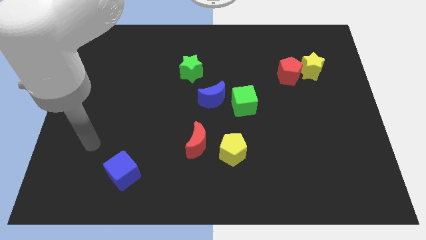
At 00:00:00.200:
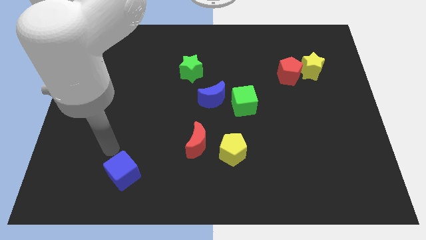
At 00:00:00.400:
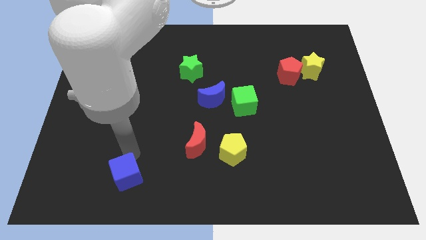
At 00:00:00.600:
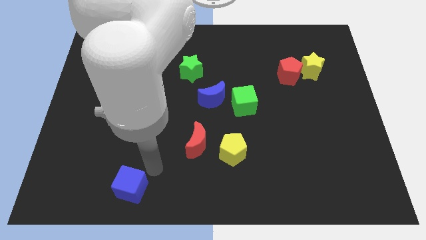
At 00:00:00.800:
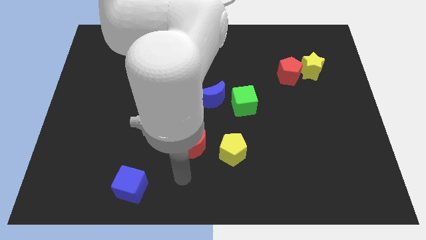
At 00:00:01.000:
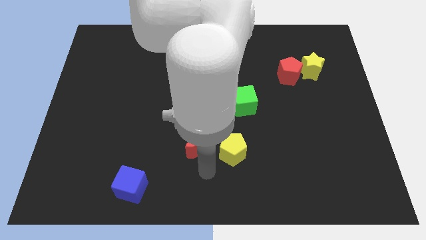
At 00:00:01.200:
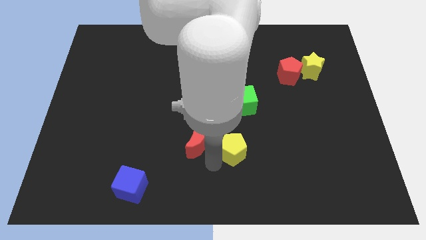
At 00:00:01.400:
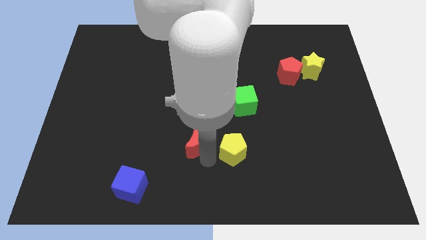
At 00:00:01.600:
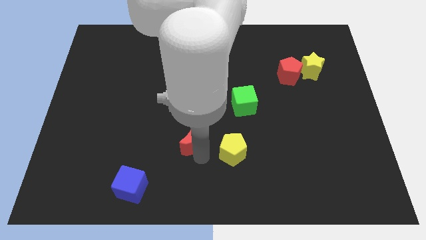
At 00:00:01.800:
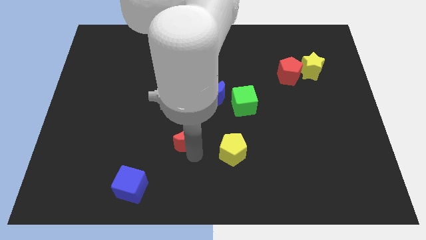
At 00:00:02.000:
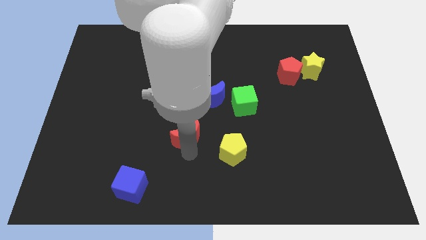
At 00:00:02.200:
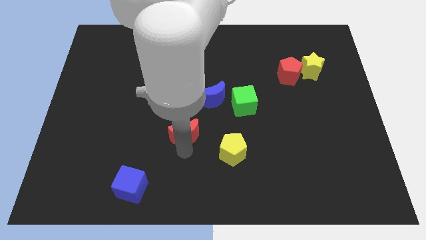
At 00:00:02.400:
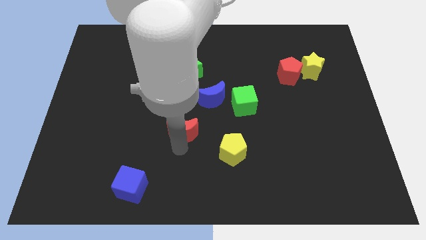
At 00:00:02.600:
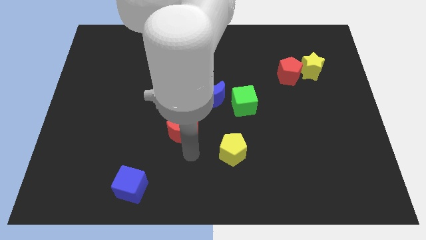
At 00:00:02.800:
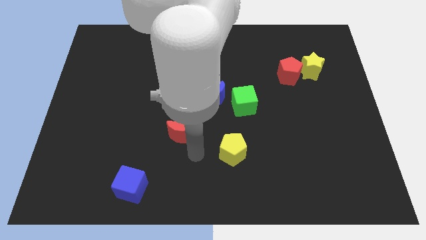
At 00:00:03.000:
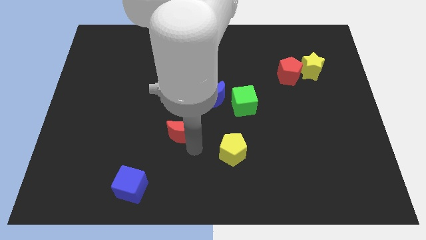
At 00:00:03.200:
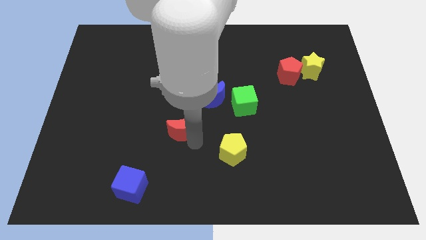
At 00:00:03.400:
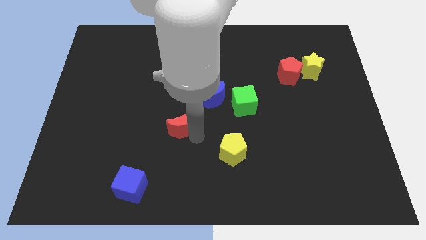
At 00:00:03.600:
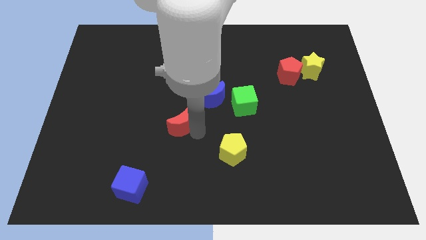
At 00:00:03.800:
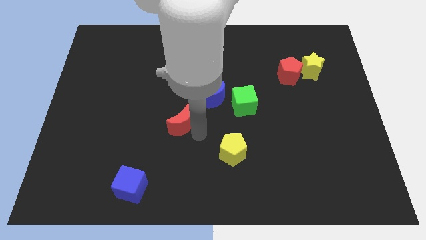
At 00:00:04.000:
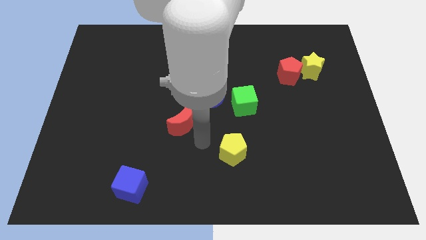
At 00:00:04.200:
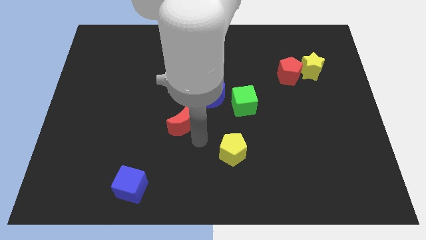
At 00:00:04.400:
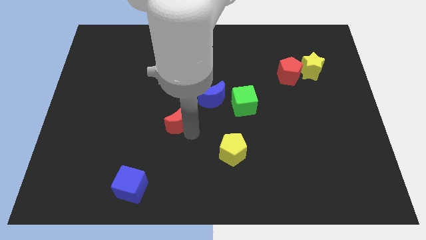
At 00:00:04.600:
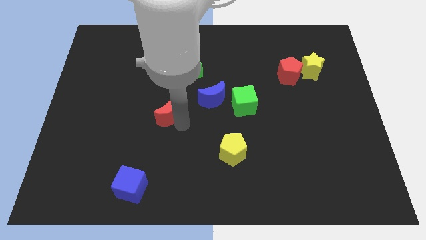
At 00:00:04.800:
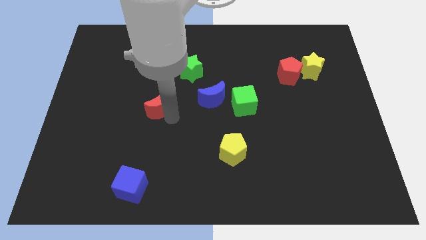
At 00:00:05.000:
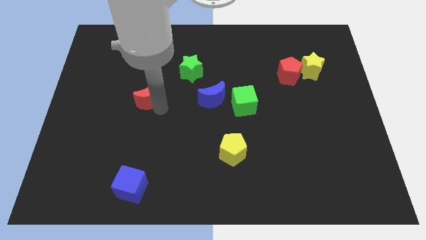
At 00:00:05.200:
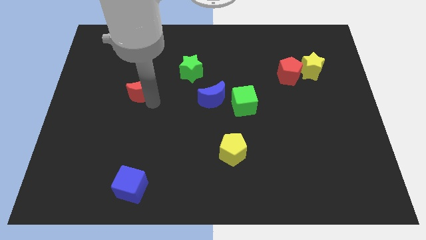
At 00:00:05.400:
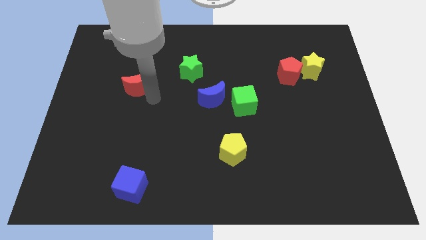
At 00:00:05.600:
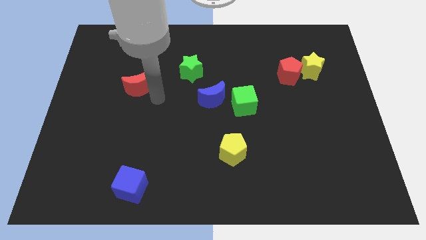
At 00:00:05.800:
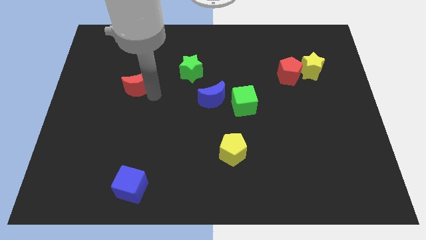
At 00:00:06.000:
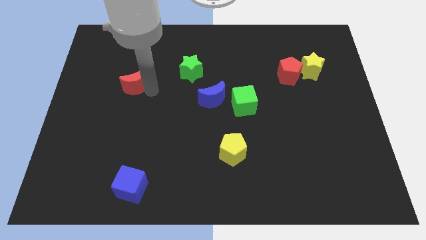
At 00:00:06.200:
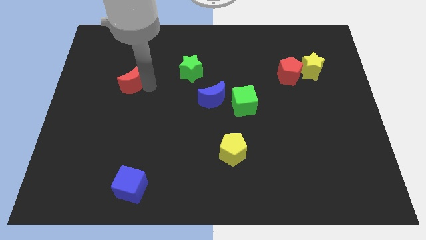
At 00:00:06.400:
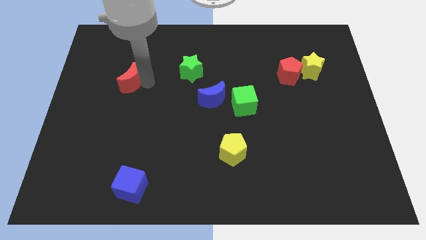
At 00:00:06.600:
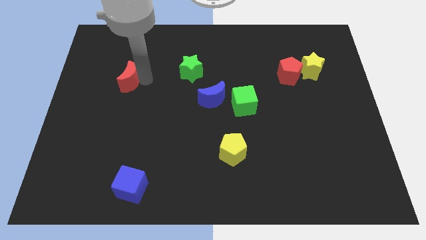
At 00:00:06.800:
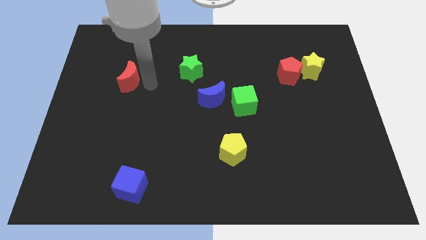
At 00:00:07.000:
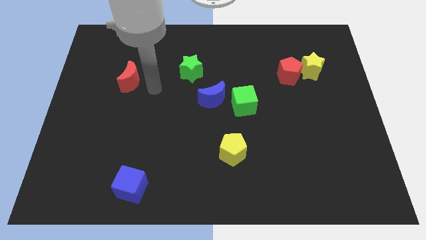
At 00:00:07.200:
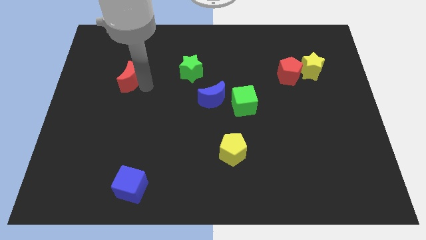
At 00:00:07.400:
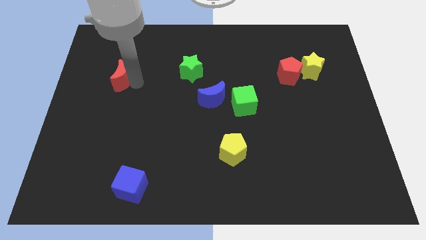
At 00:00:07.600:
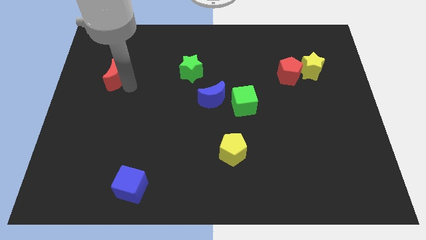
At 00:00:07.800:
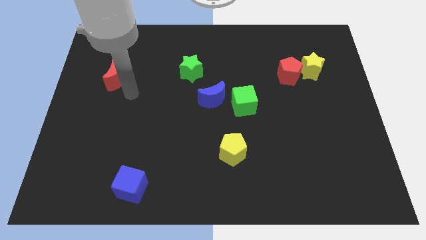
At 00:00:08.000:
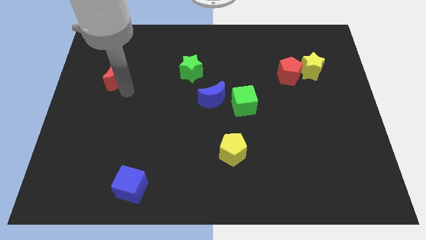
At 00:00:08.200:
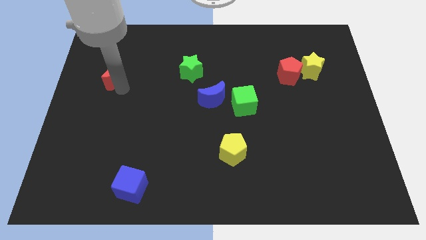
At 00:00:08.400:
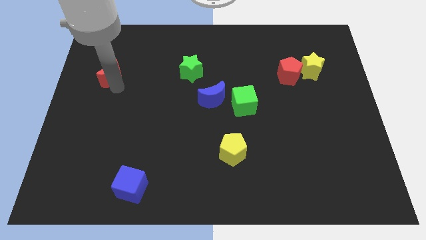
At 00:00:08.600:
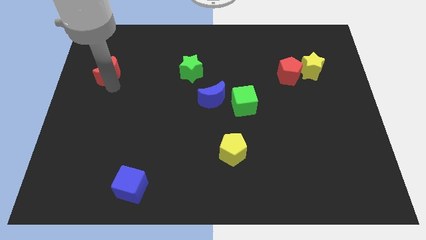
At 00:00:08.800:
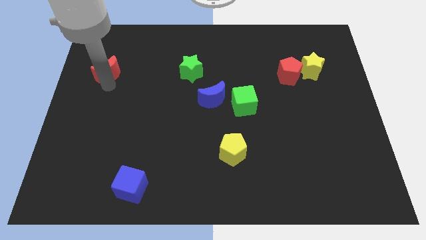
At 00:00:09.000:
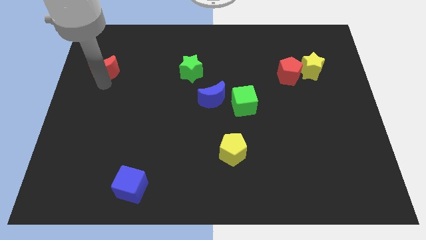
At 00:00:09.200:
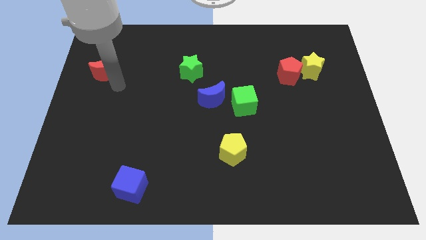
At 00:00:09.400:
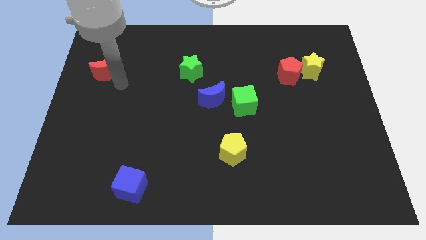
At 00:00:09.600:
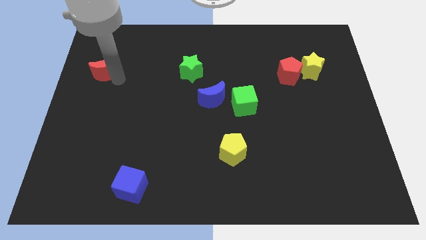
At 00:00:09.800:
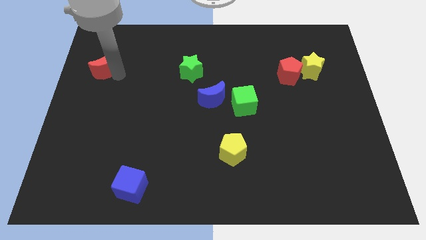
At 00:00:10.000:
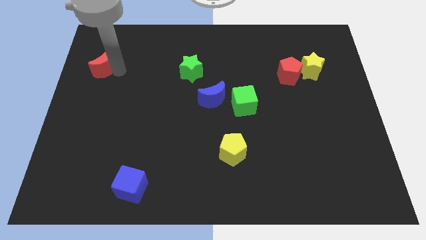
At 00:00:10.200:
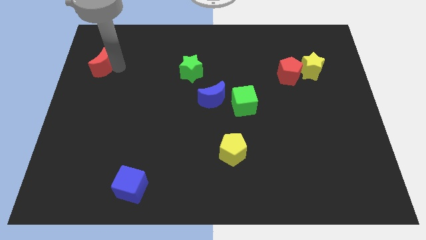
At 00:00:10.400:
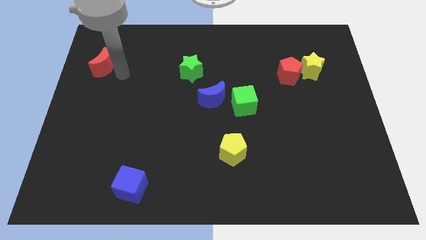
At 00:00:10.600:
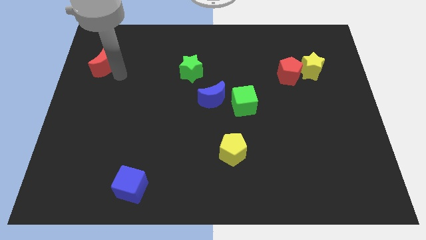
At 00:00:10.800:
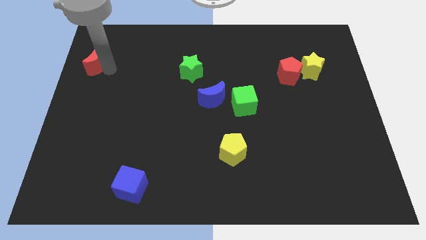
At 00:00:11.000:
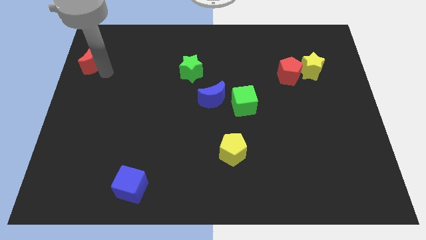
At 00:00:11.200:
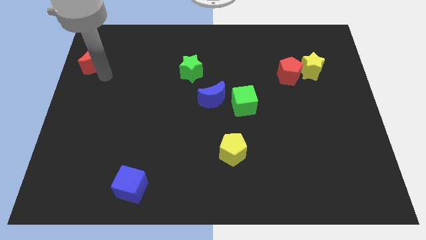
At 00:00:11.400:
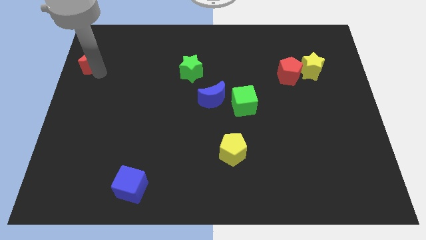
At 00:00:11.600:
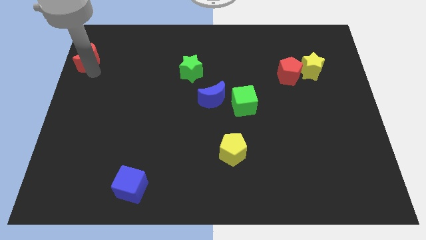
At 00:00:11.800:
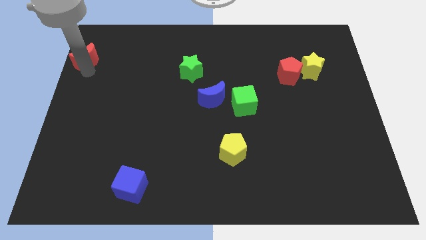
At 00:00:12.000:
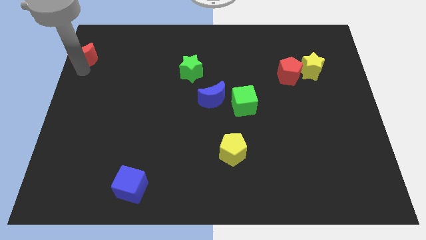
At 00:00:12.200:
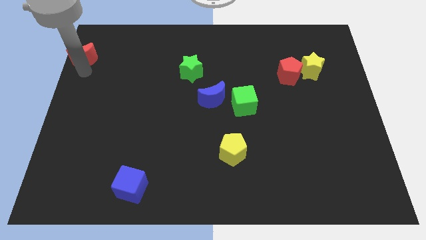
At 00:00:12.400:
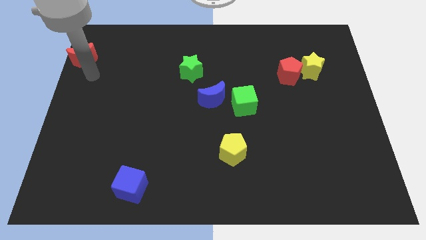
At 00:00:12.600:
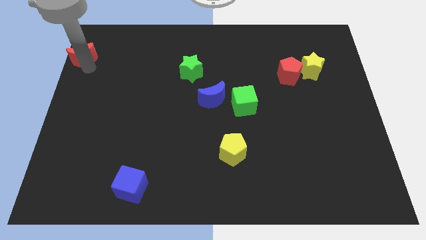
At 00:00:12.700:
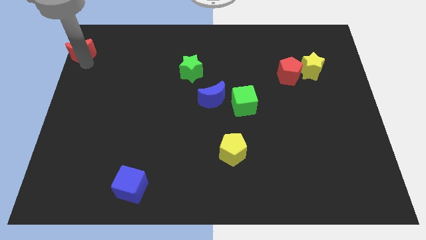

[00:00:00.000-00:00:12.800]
slide the red moon to the upper left corner

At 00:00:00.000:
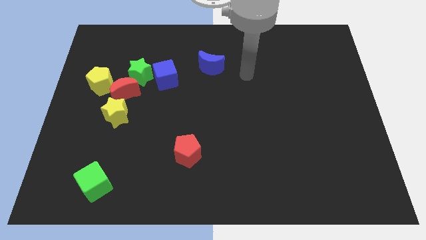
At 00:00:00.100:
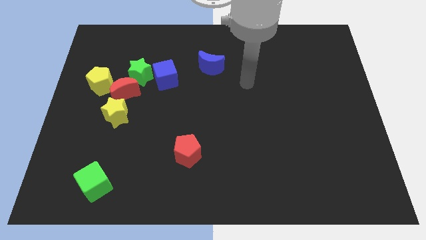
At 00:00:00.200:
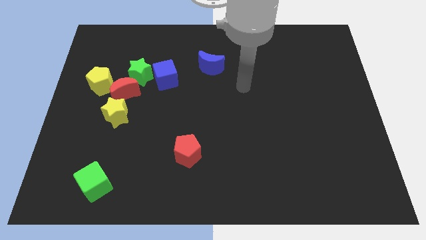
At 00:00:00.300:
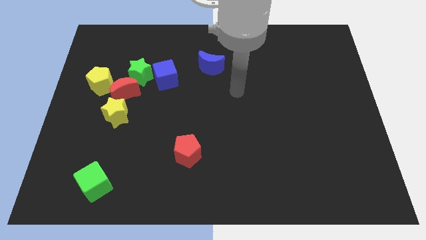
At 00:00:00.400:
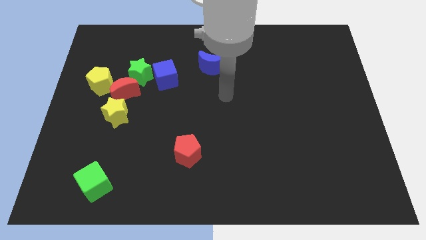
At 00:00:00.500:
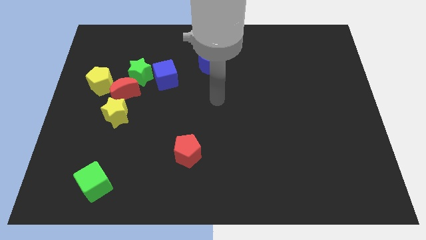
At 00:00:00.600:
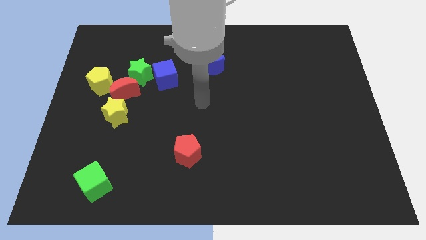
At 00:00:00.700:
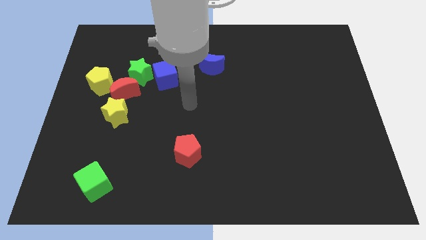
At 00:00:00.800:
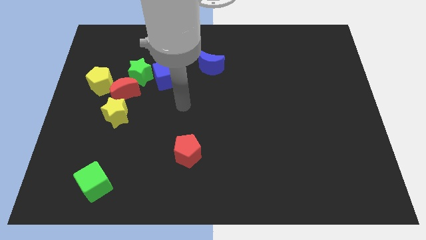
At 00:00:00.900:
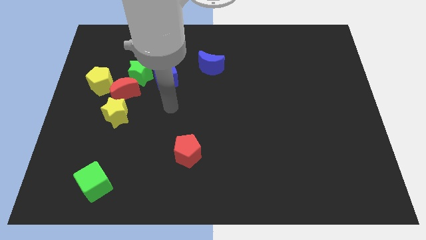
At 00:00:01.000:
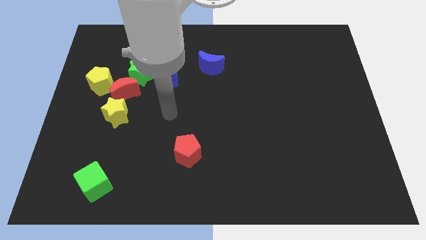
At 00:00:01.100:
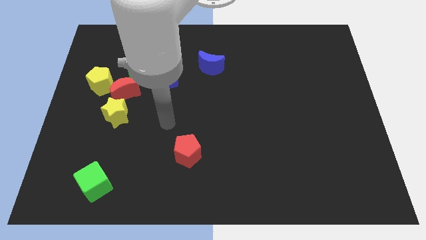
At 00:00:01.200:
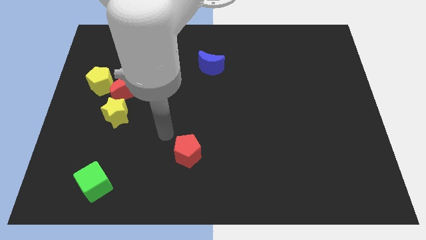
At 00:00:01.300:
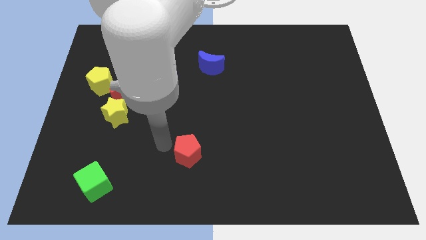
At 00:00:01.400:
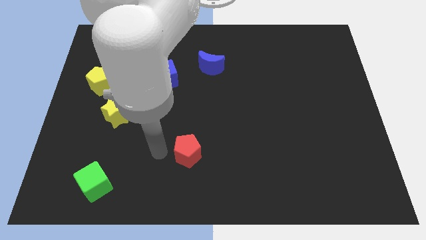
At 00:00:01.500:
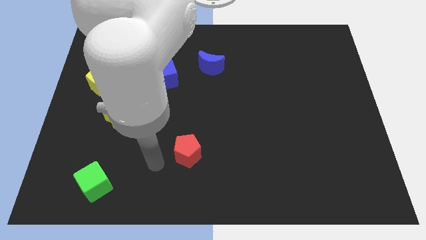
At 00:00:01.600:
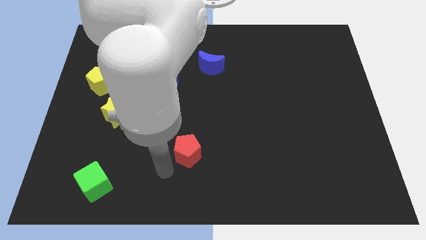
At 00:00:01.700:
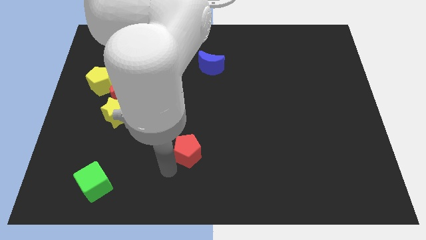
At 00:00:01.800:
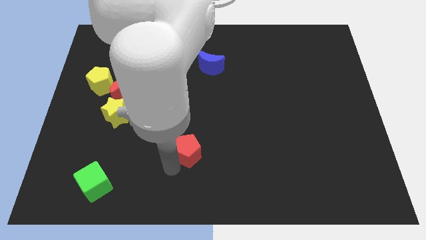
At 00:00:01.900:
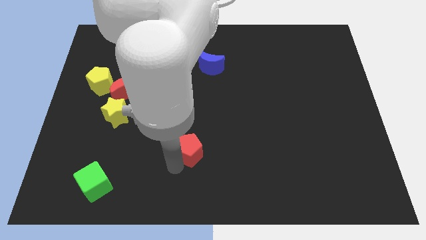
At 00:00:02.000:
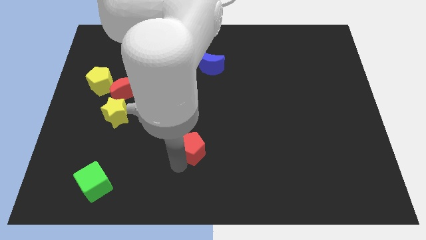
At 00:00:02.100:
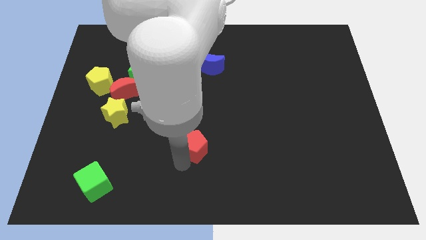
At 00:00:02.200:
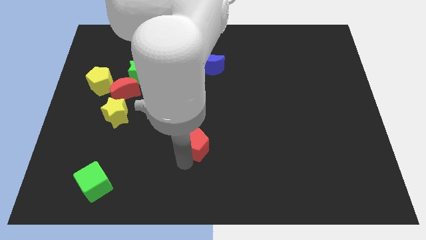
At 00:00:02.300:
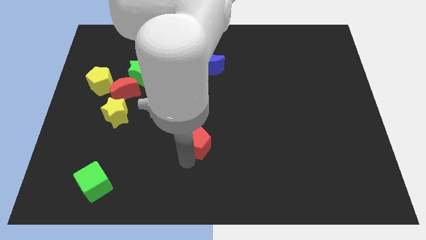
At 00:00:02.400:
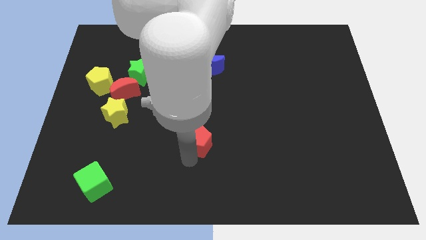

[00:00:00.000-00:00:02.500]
move the red pentagon to the middle of the board
